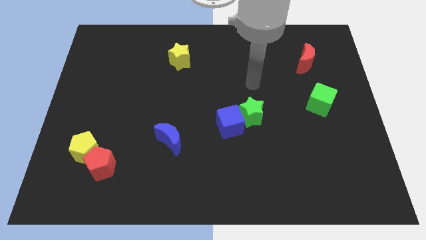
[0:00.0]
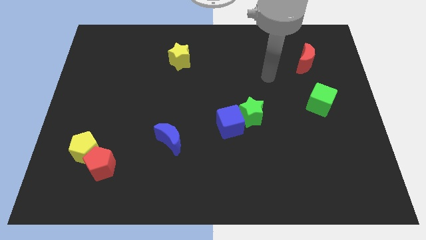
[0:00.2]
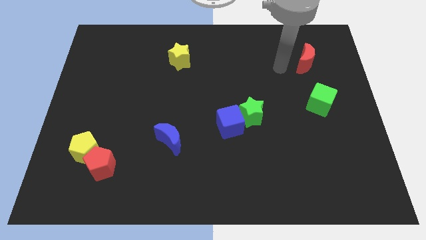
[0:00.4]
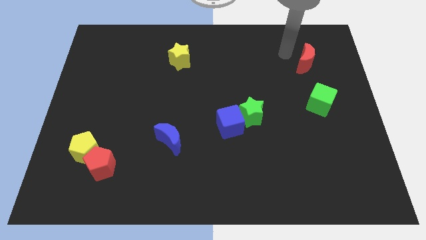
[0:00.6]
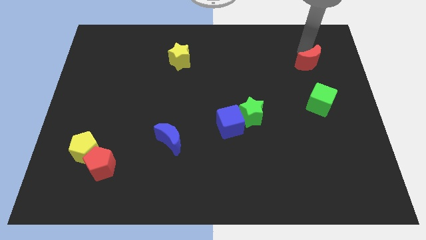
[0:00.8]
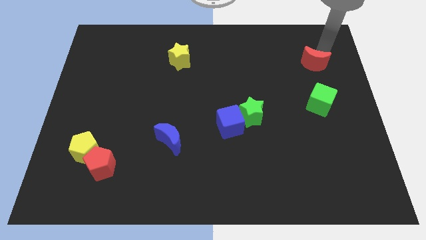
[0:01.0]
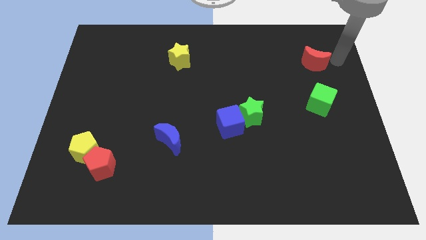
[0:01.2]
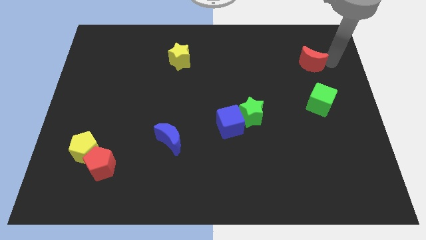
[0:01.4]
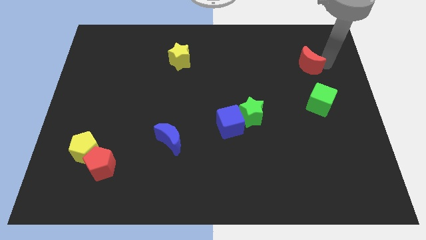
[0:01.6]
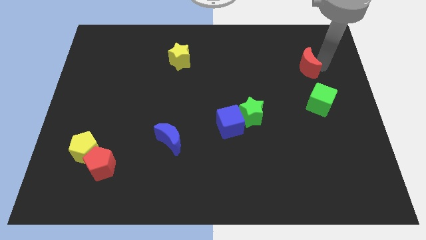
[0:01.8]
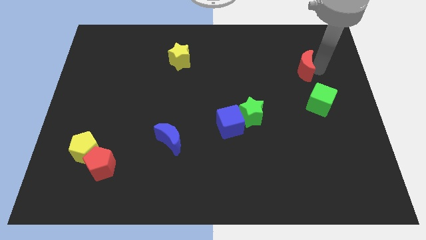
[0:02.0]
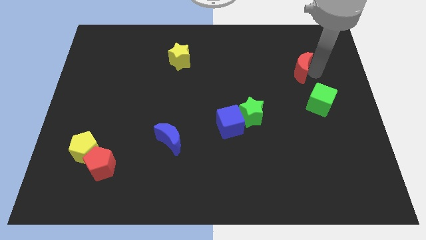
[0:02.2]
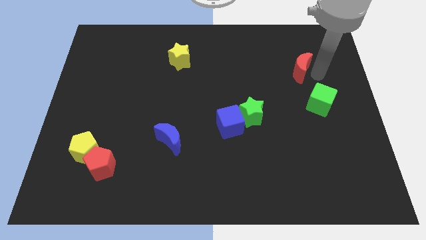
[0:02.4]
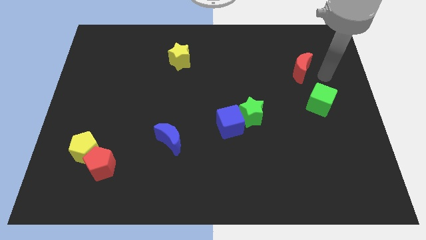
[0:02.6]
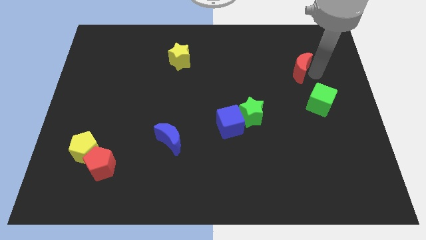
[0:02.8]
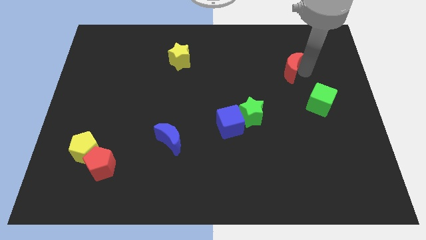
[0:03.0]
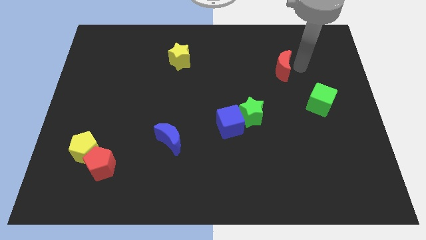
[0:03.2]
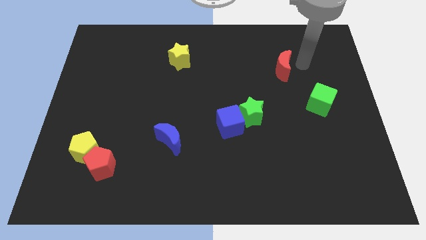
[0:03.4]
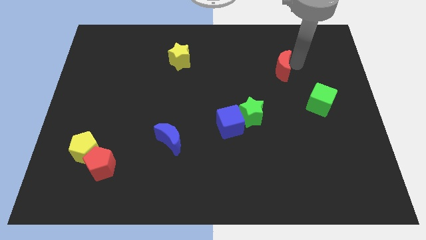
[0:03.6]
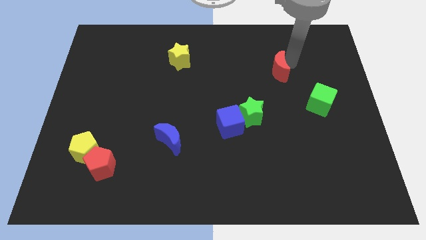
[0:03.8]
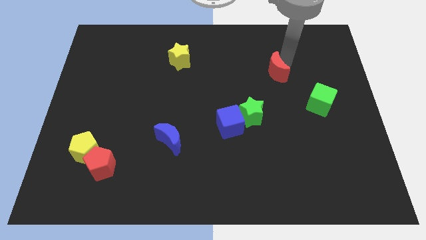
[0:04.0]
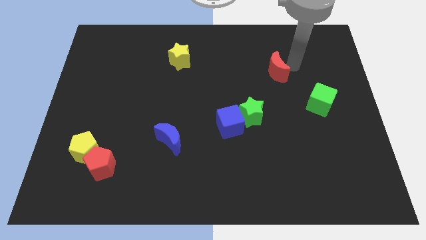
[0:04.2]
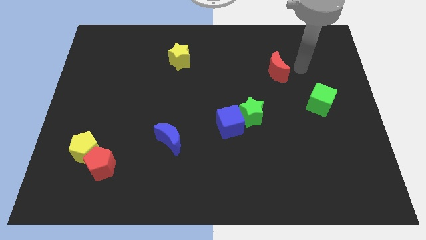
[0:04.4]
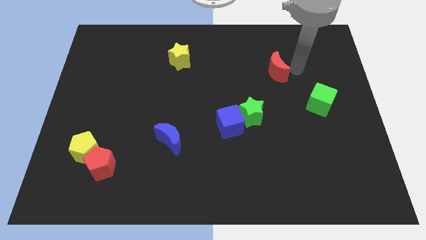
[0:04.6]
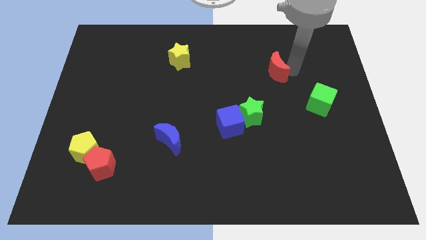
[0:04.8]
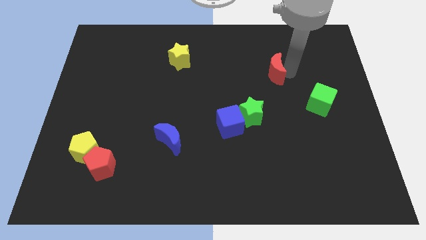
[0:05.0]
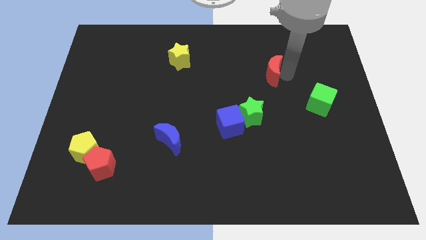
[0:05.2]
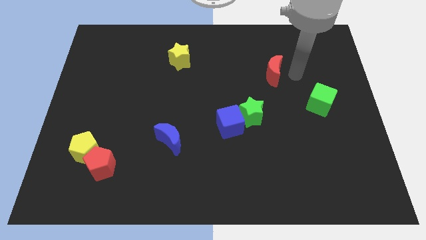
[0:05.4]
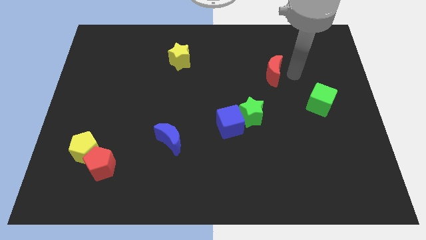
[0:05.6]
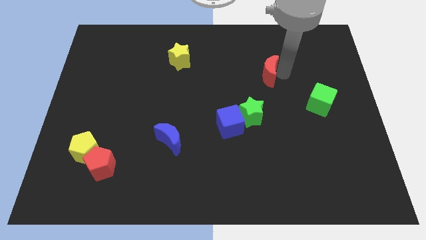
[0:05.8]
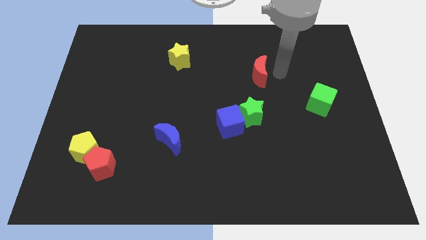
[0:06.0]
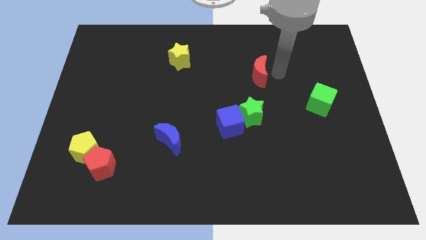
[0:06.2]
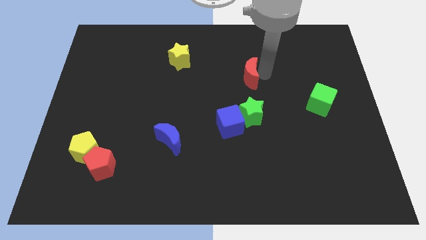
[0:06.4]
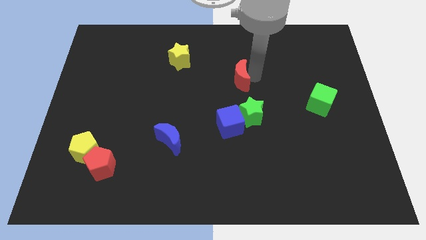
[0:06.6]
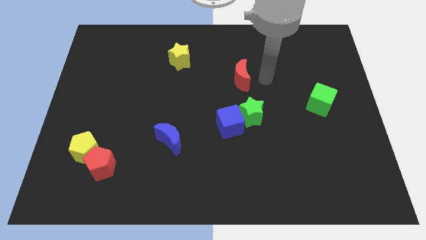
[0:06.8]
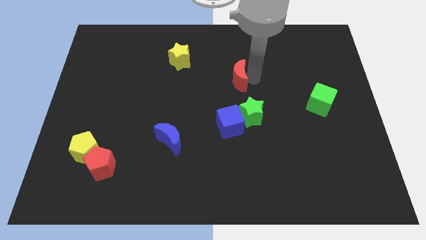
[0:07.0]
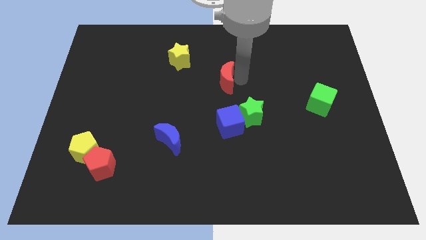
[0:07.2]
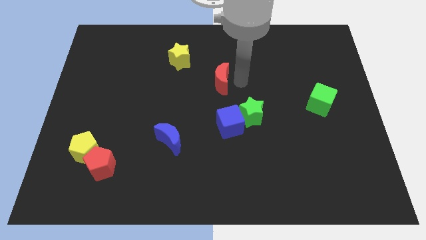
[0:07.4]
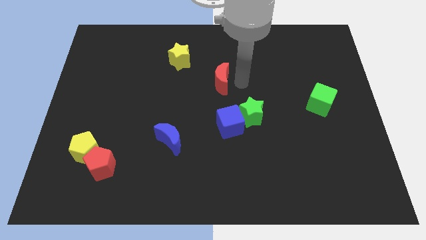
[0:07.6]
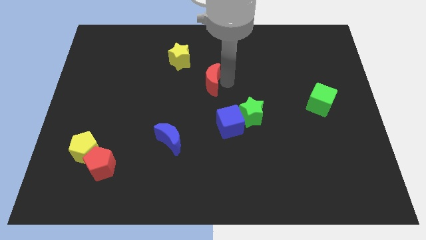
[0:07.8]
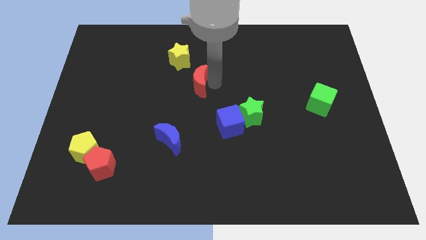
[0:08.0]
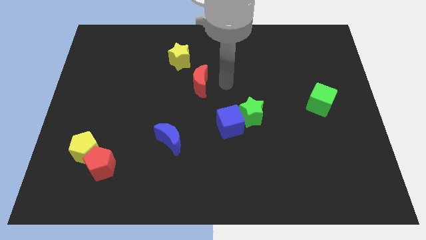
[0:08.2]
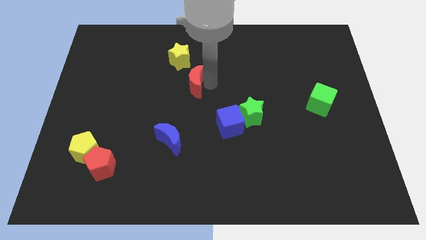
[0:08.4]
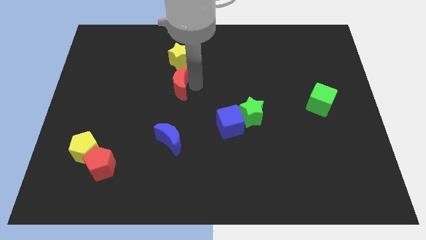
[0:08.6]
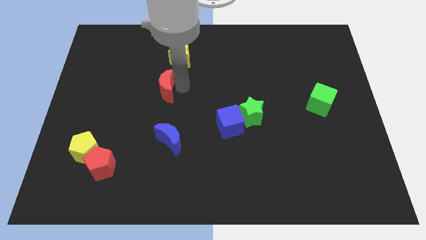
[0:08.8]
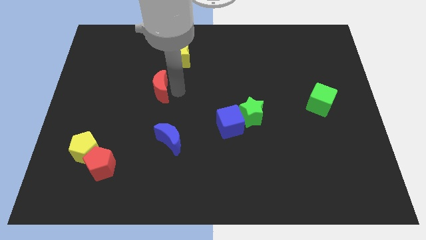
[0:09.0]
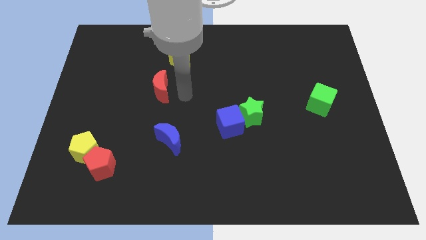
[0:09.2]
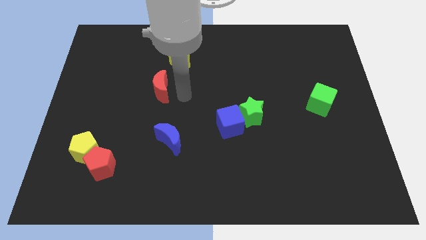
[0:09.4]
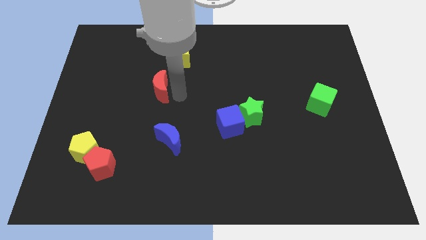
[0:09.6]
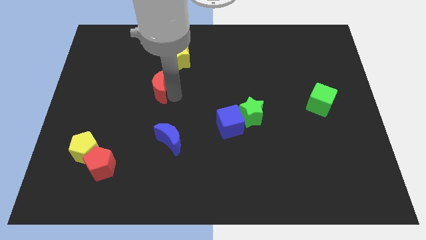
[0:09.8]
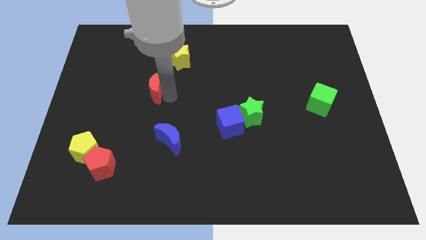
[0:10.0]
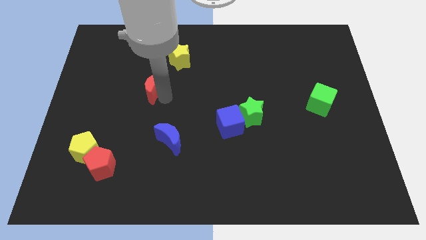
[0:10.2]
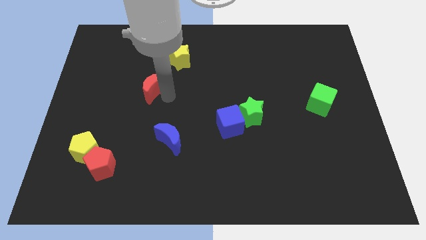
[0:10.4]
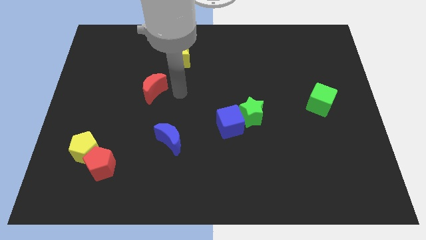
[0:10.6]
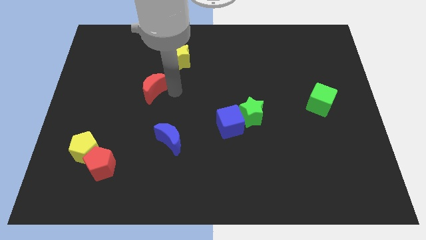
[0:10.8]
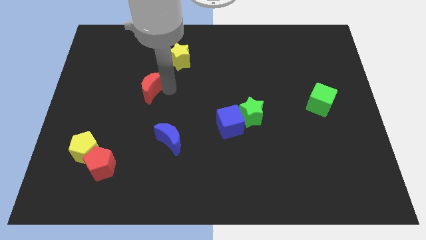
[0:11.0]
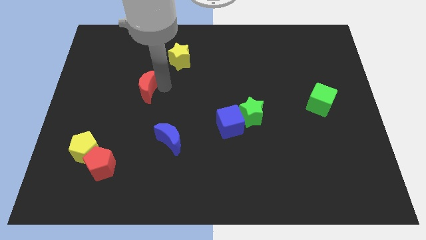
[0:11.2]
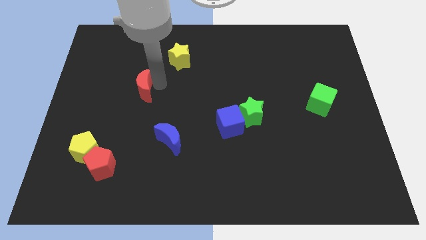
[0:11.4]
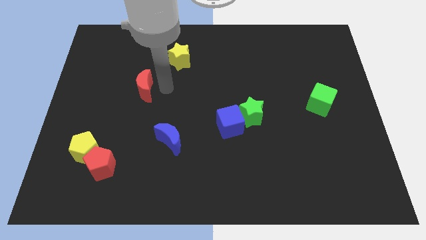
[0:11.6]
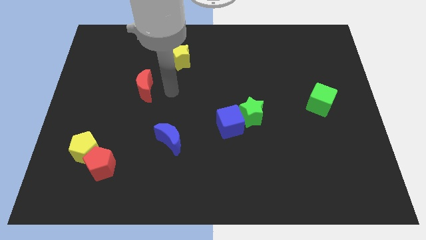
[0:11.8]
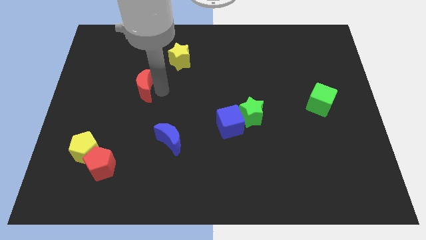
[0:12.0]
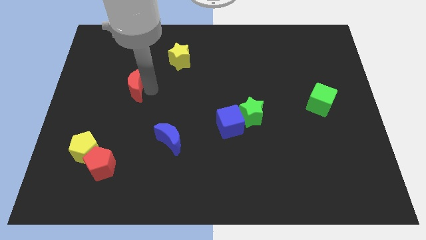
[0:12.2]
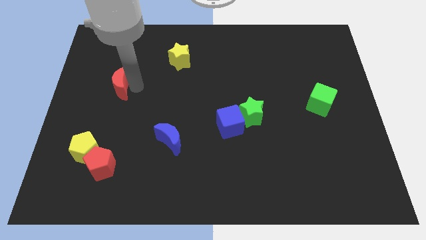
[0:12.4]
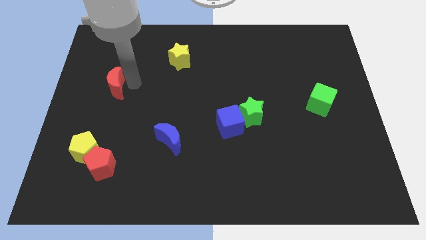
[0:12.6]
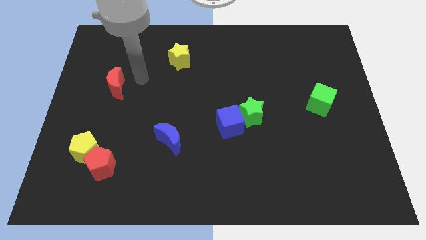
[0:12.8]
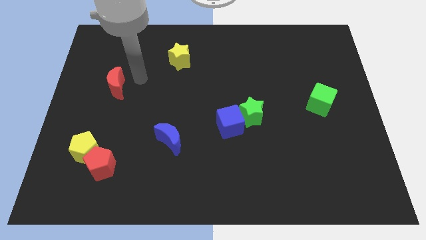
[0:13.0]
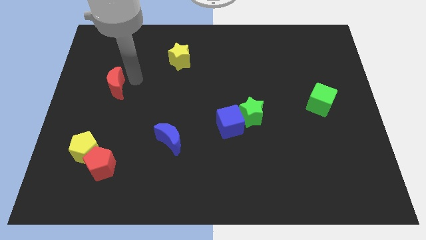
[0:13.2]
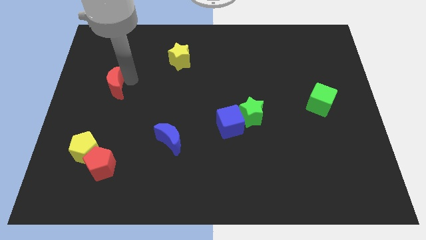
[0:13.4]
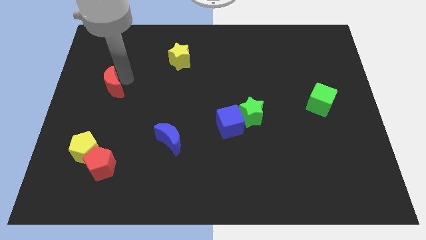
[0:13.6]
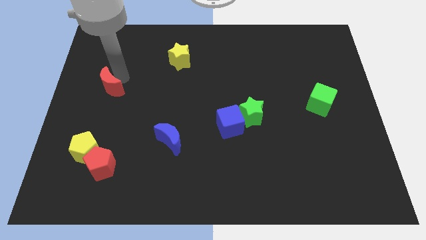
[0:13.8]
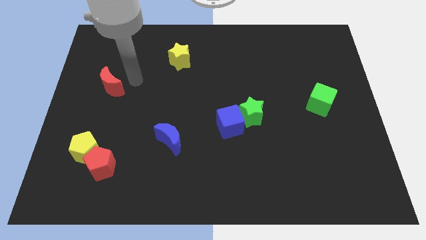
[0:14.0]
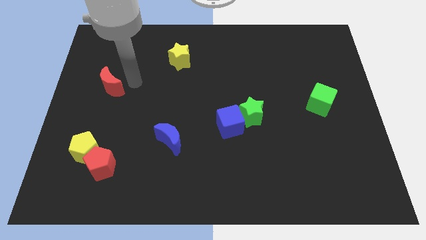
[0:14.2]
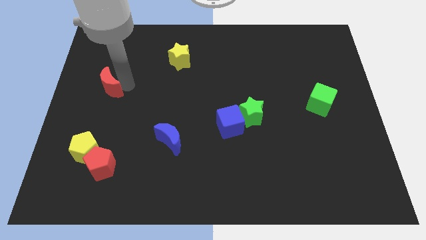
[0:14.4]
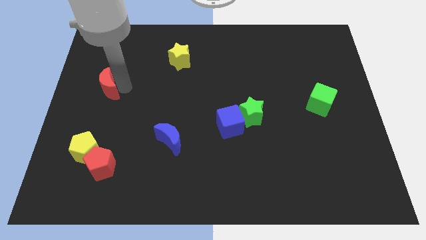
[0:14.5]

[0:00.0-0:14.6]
move the red moon to the center left
